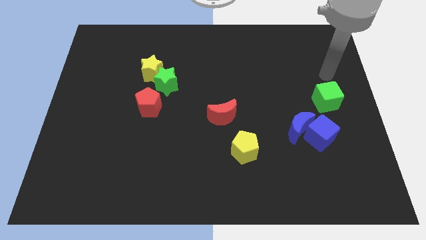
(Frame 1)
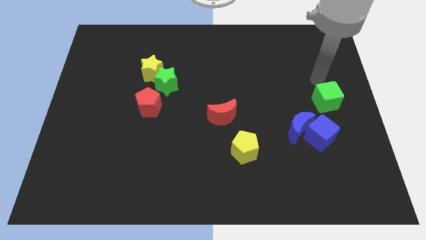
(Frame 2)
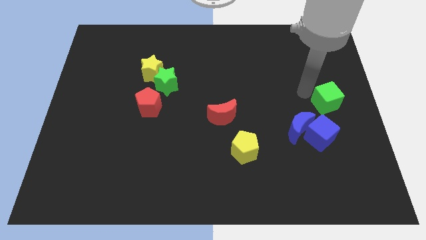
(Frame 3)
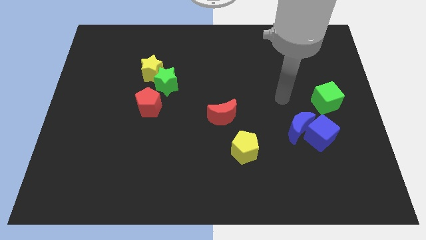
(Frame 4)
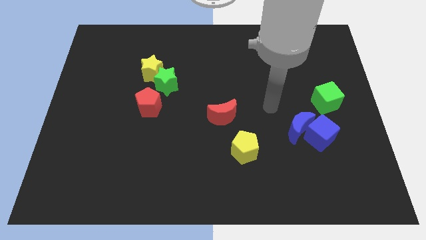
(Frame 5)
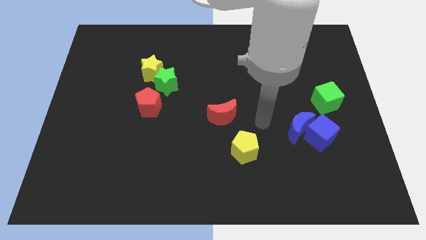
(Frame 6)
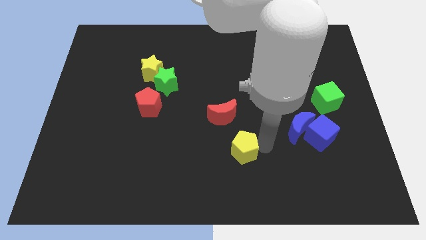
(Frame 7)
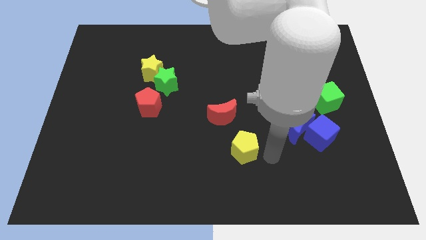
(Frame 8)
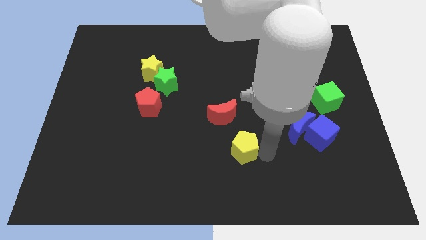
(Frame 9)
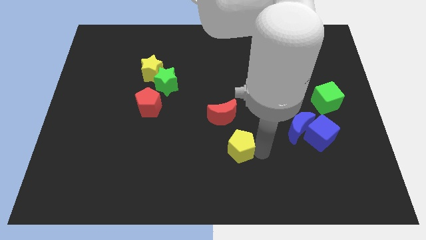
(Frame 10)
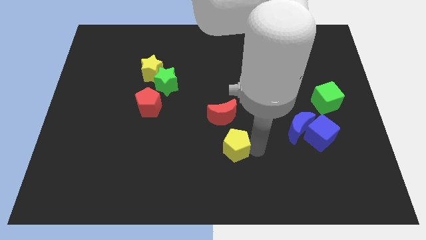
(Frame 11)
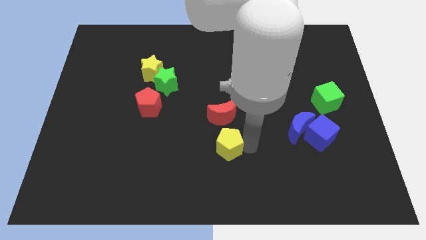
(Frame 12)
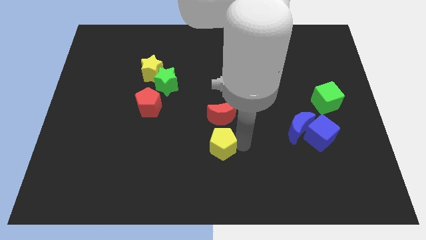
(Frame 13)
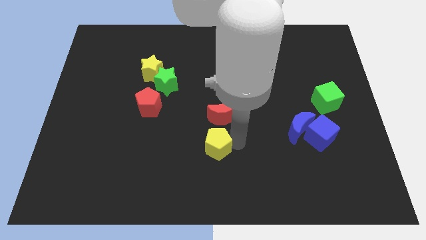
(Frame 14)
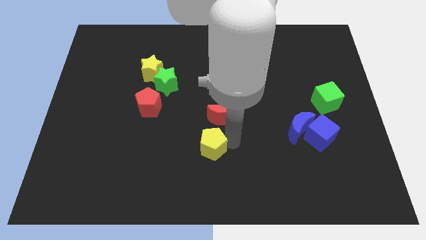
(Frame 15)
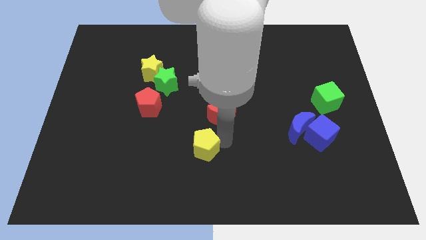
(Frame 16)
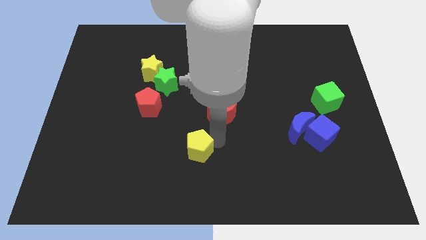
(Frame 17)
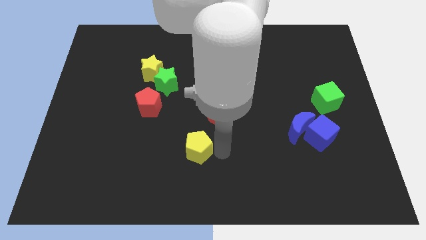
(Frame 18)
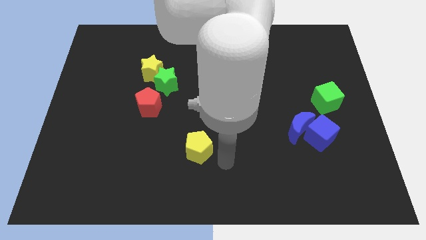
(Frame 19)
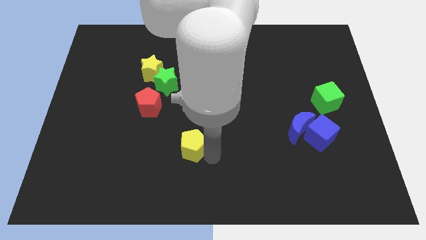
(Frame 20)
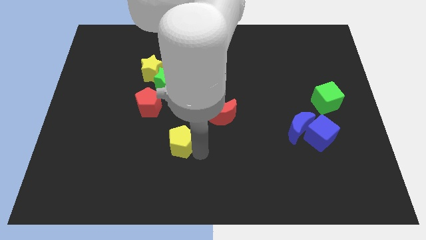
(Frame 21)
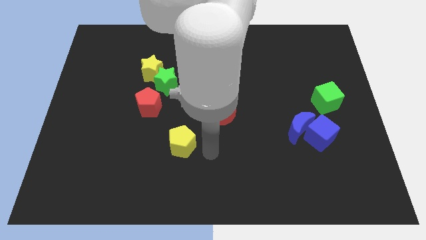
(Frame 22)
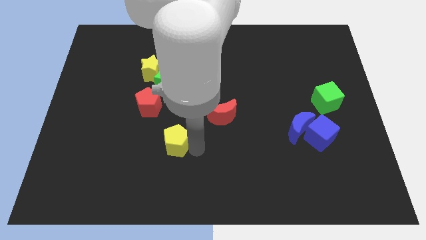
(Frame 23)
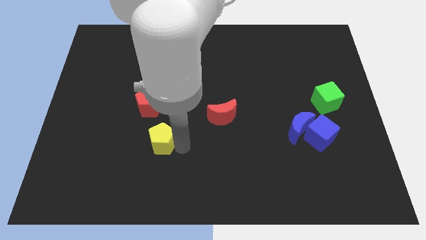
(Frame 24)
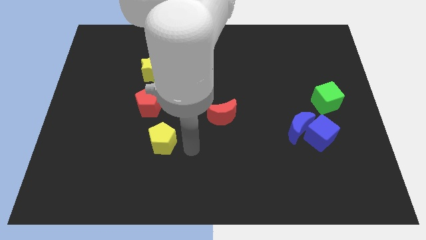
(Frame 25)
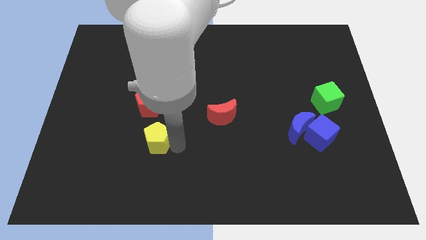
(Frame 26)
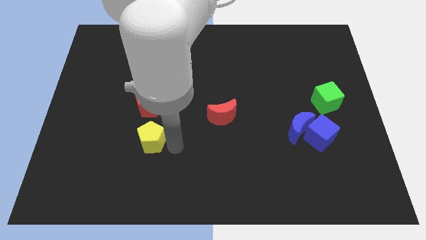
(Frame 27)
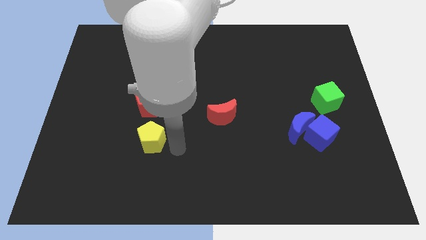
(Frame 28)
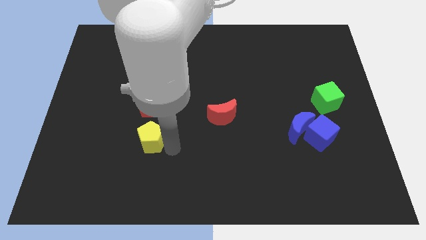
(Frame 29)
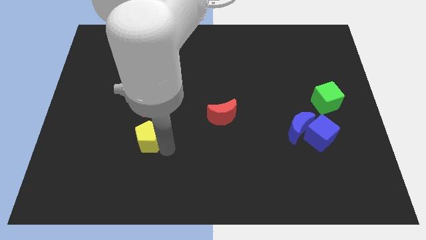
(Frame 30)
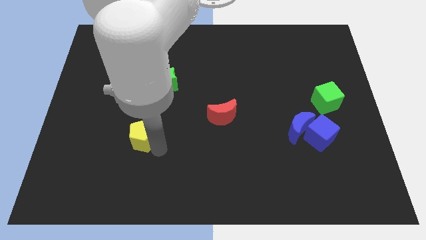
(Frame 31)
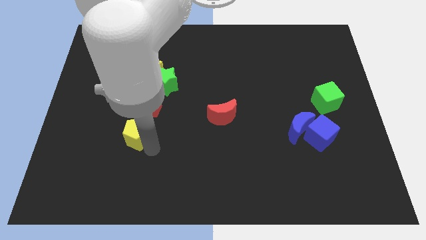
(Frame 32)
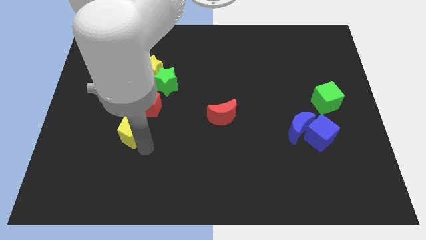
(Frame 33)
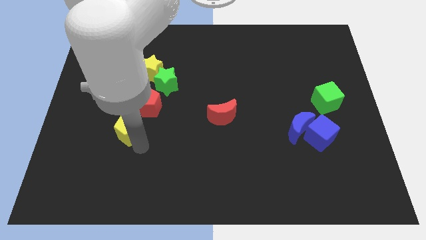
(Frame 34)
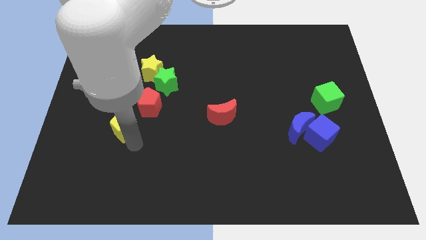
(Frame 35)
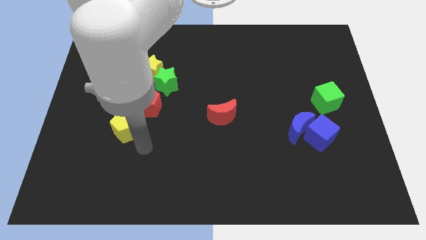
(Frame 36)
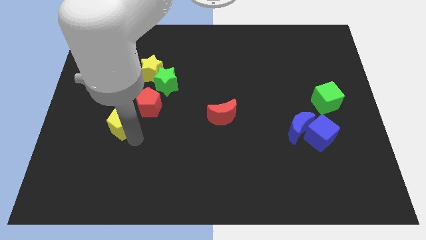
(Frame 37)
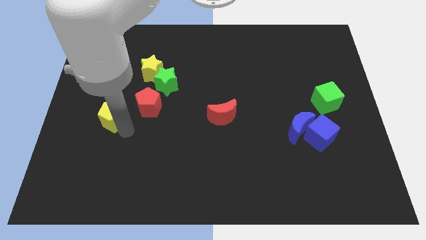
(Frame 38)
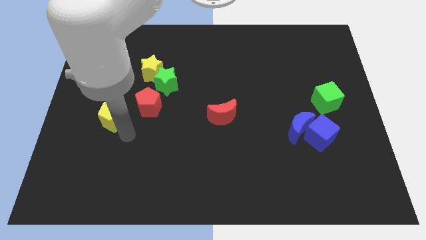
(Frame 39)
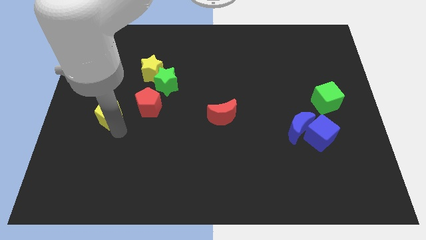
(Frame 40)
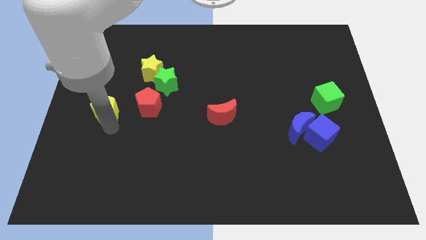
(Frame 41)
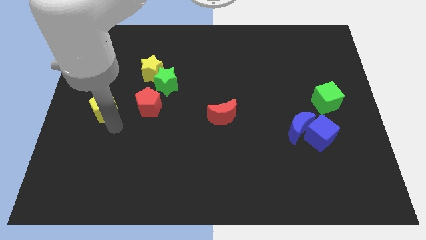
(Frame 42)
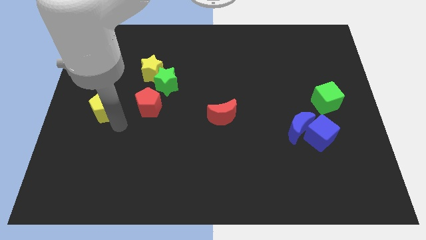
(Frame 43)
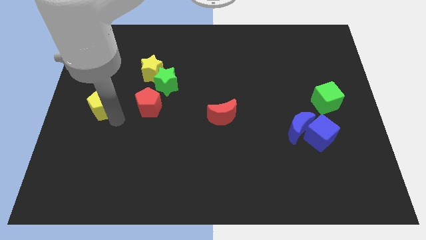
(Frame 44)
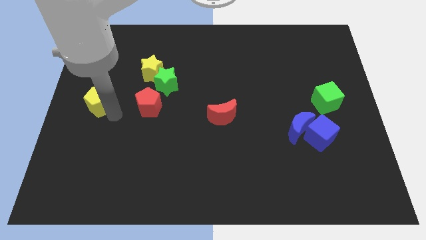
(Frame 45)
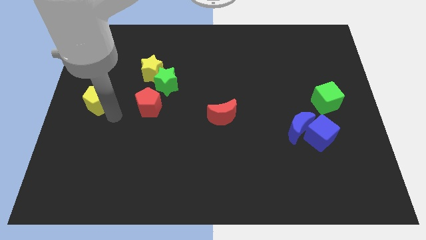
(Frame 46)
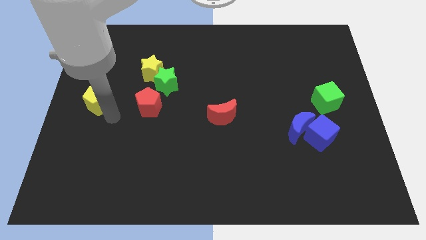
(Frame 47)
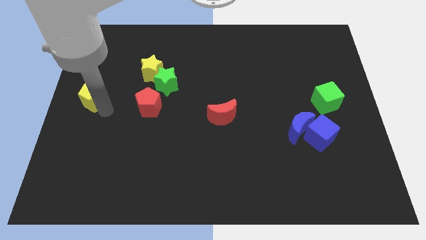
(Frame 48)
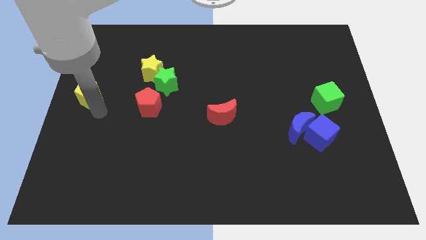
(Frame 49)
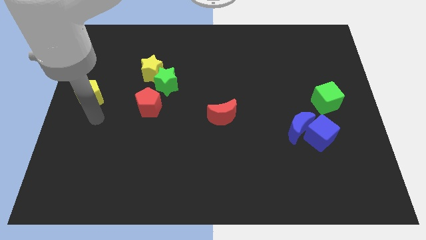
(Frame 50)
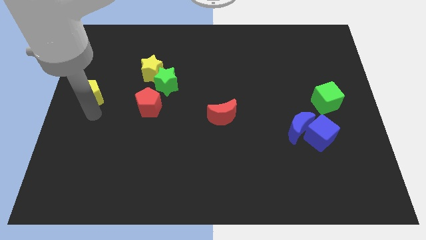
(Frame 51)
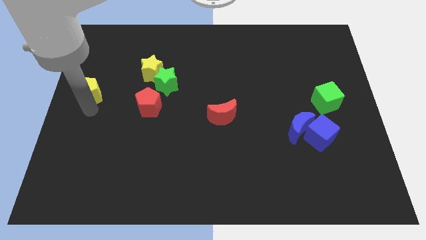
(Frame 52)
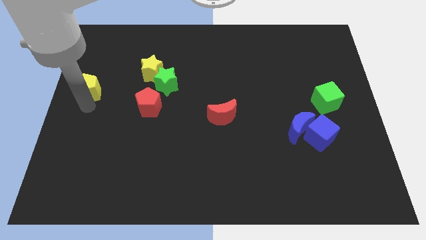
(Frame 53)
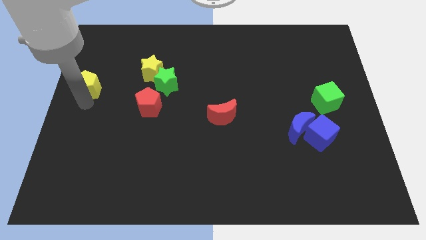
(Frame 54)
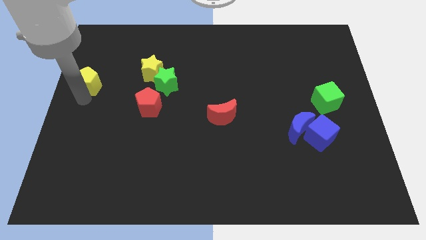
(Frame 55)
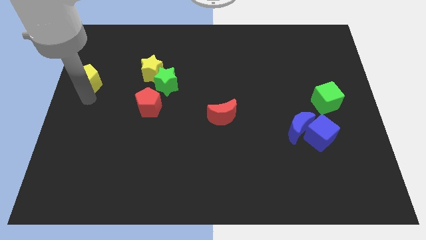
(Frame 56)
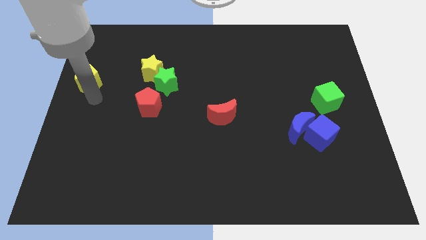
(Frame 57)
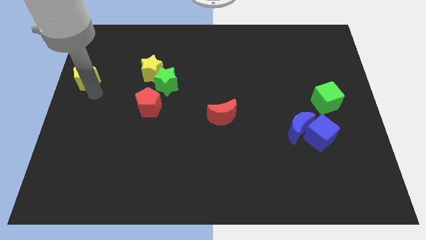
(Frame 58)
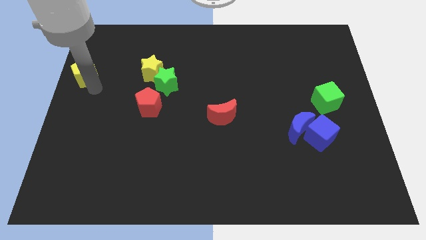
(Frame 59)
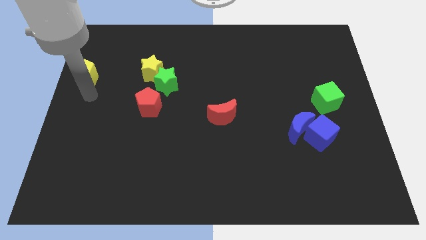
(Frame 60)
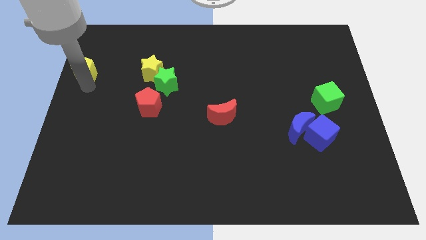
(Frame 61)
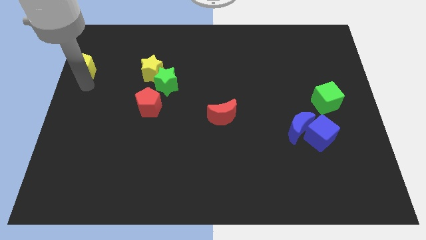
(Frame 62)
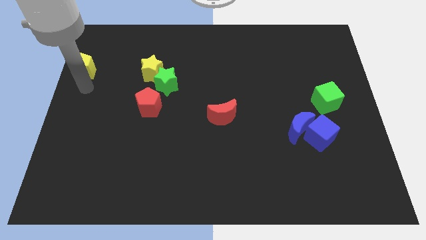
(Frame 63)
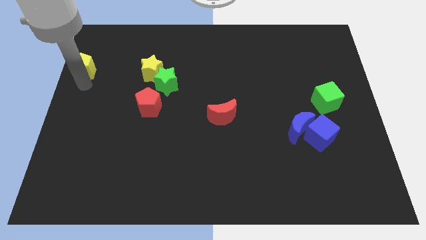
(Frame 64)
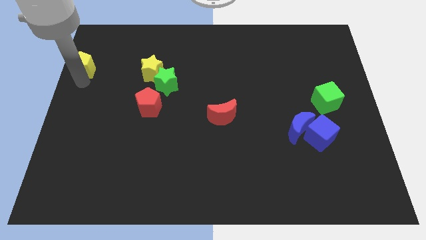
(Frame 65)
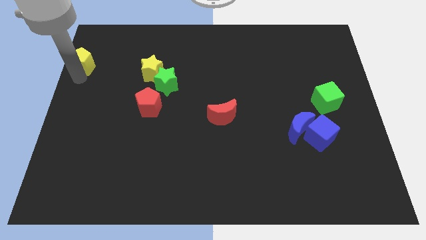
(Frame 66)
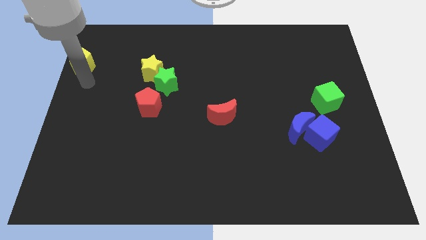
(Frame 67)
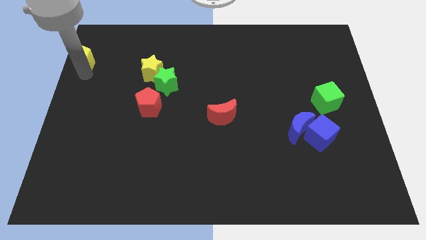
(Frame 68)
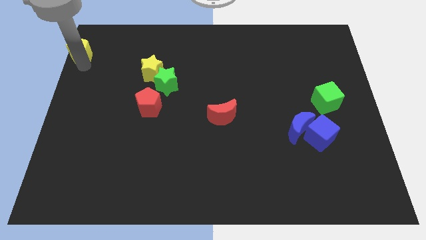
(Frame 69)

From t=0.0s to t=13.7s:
move the yellow pentagon to the top left

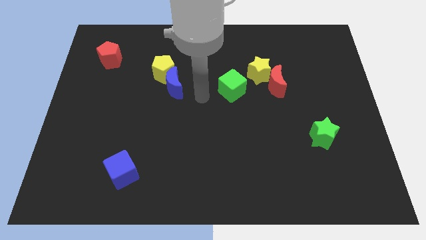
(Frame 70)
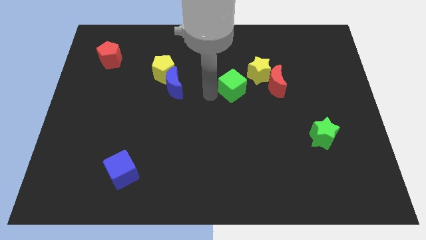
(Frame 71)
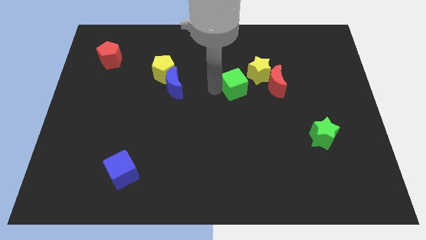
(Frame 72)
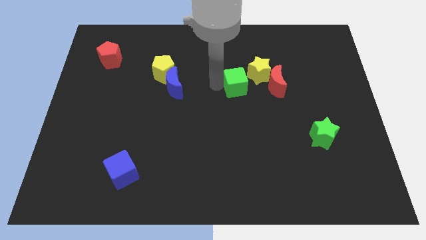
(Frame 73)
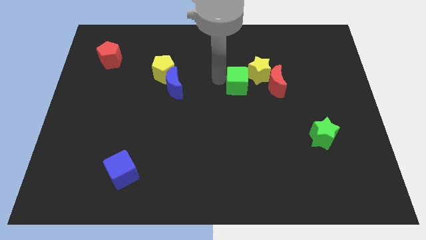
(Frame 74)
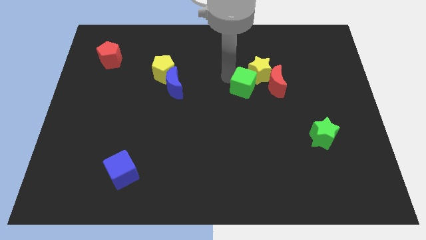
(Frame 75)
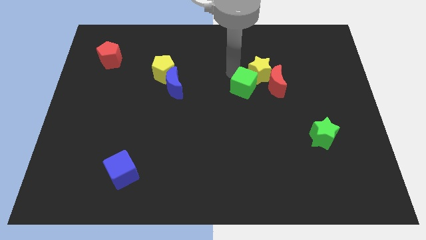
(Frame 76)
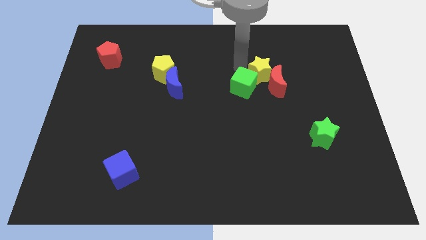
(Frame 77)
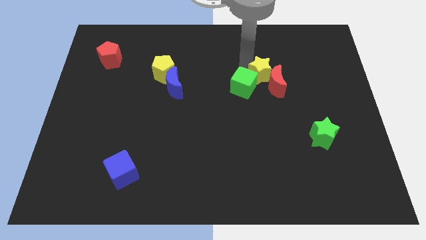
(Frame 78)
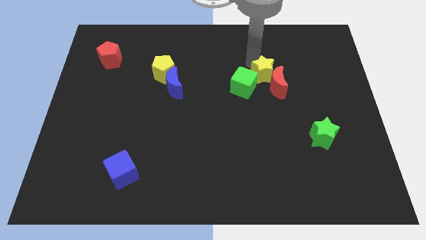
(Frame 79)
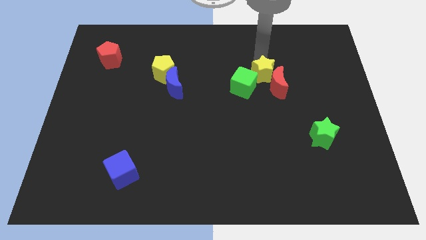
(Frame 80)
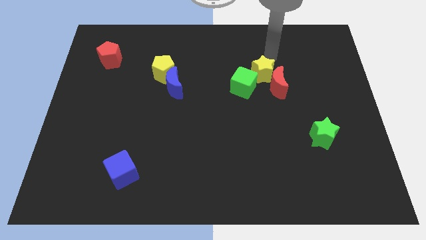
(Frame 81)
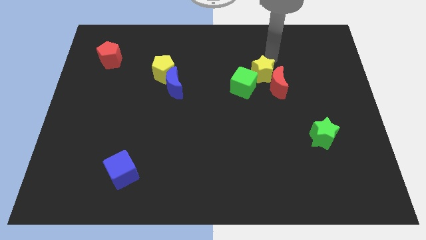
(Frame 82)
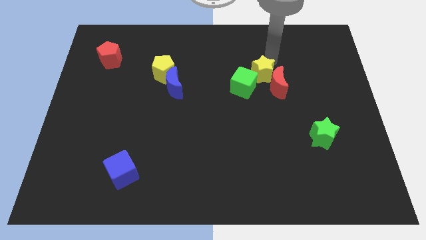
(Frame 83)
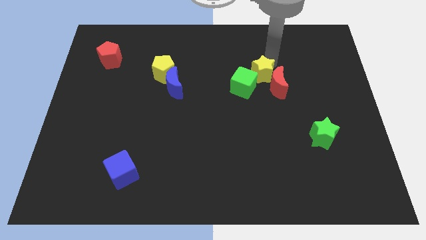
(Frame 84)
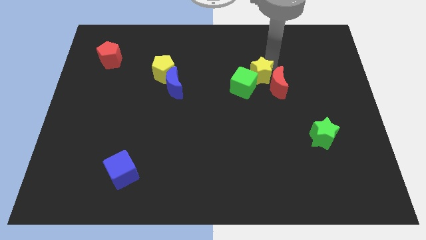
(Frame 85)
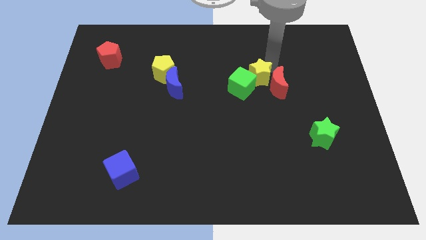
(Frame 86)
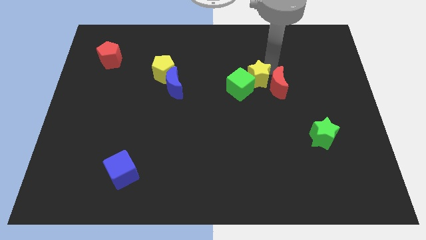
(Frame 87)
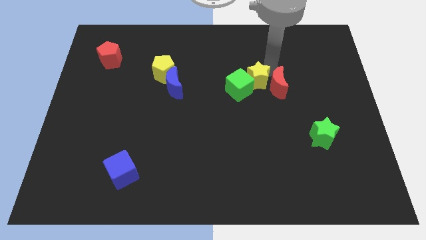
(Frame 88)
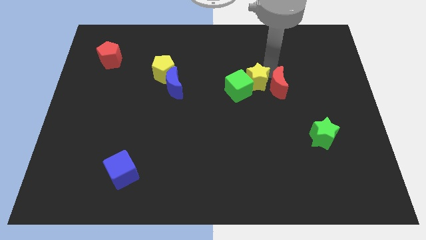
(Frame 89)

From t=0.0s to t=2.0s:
move the yellow star to the middle of the board
